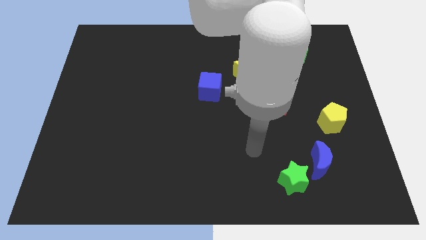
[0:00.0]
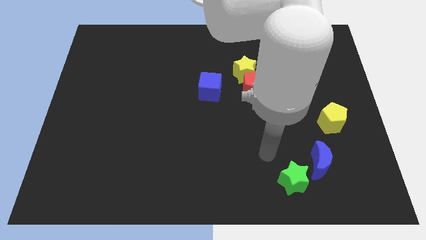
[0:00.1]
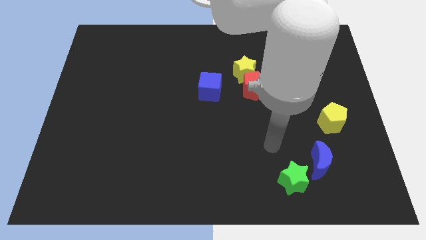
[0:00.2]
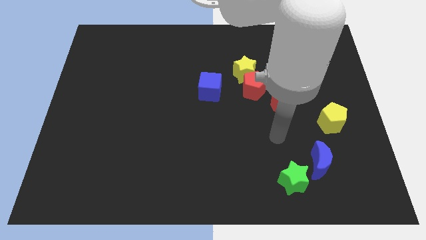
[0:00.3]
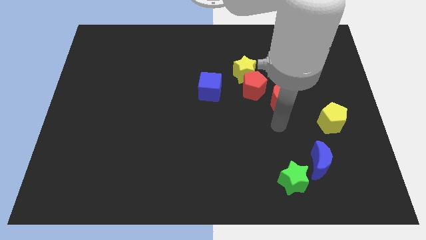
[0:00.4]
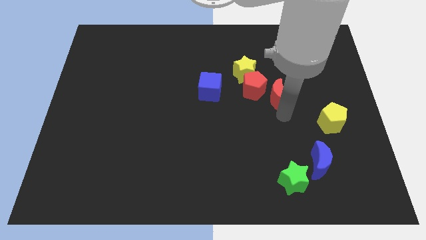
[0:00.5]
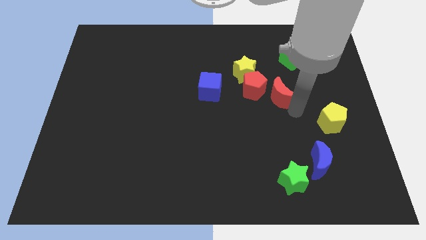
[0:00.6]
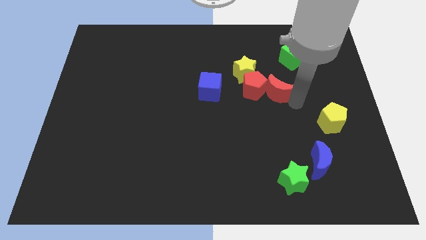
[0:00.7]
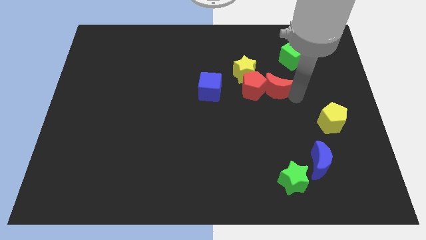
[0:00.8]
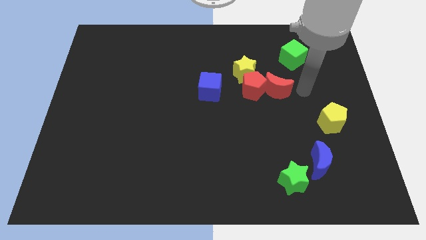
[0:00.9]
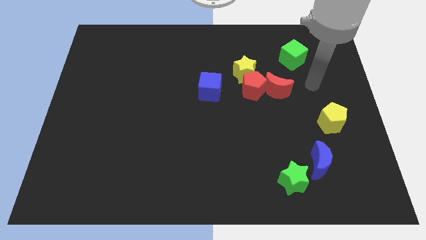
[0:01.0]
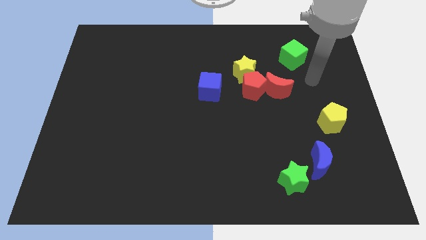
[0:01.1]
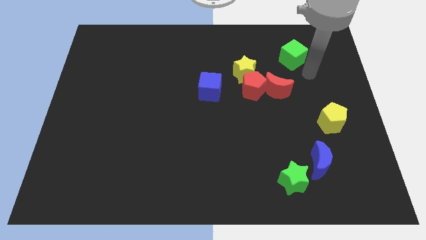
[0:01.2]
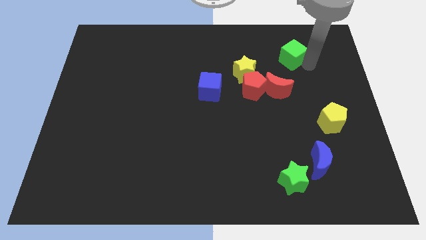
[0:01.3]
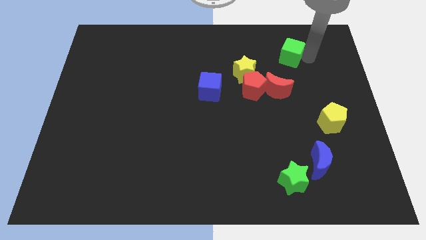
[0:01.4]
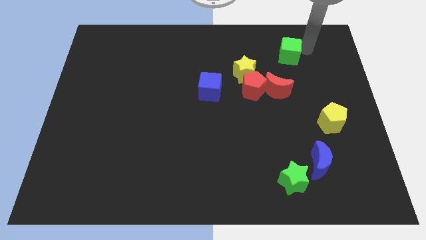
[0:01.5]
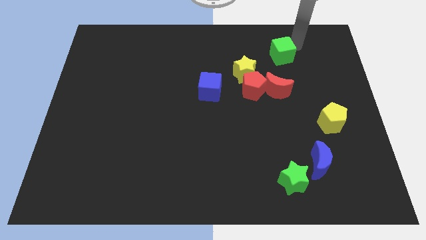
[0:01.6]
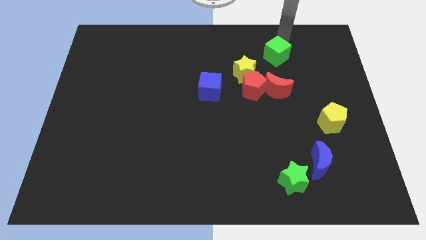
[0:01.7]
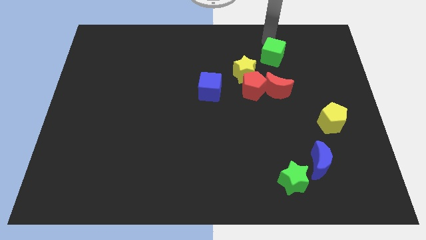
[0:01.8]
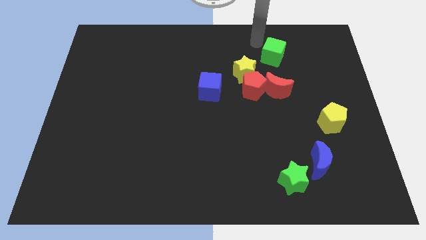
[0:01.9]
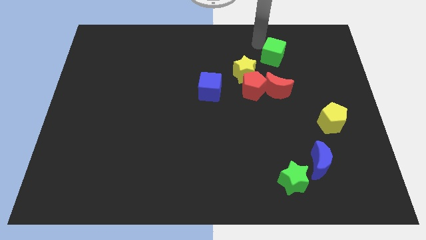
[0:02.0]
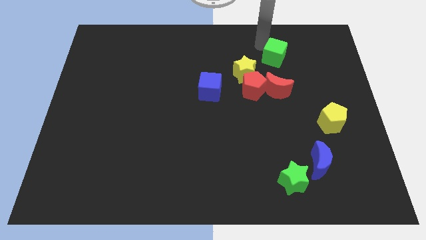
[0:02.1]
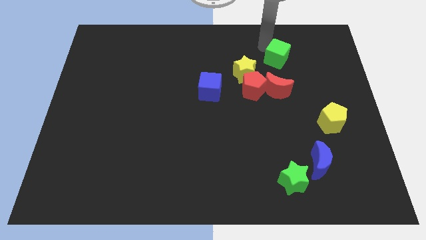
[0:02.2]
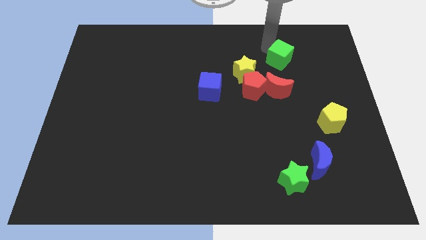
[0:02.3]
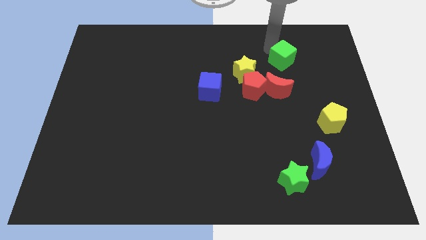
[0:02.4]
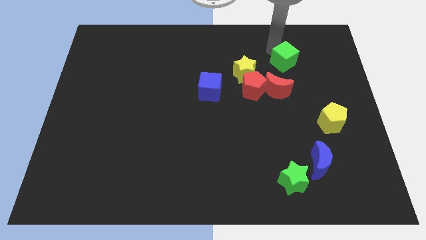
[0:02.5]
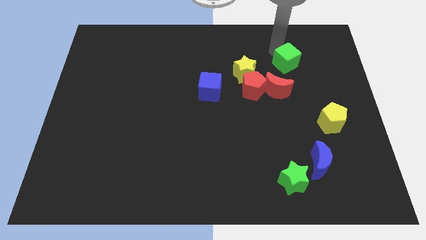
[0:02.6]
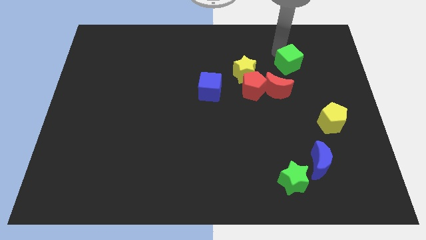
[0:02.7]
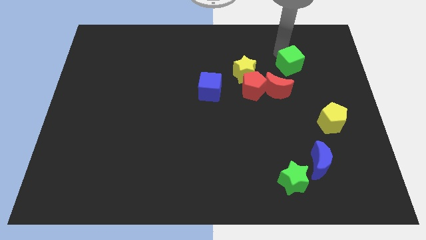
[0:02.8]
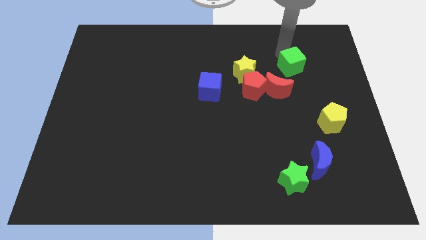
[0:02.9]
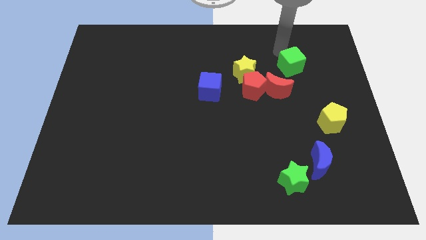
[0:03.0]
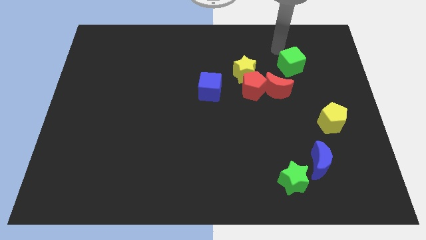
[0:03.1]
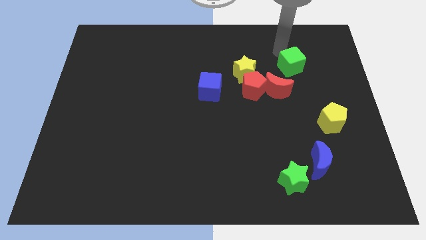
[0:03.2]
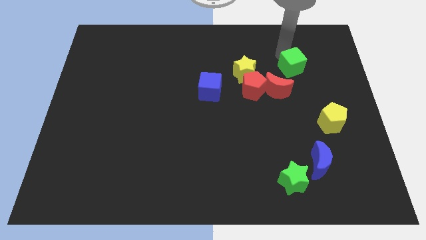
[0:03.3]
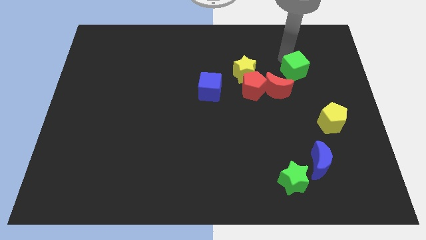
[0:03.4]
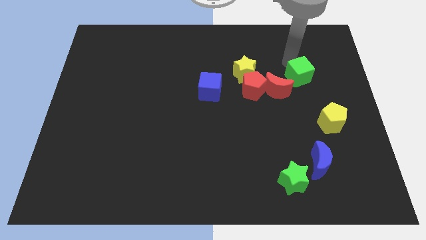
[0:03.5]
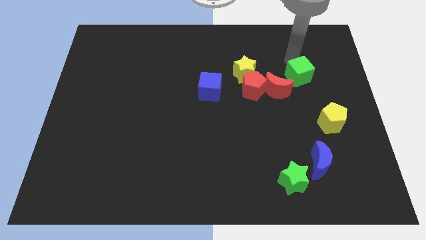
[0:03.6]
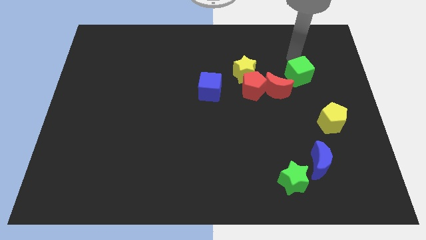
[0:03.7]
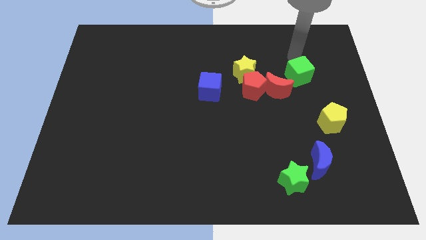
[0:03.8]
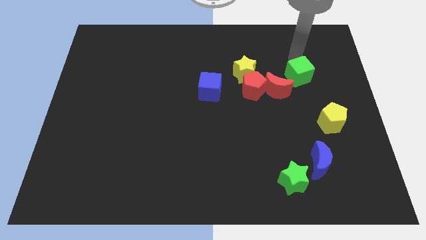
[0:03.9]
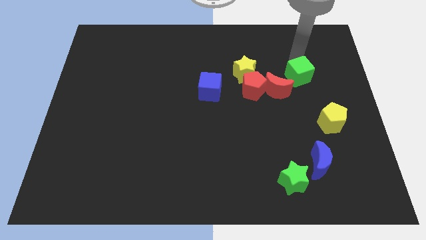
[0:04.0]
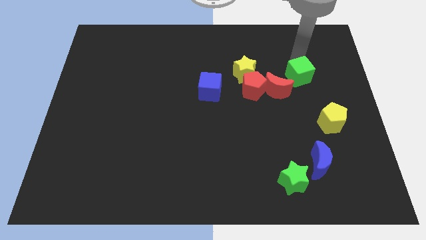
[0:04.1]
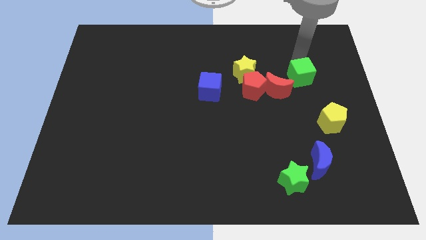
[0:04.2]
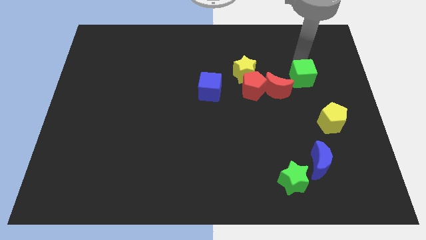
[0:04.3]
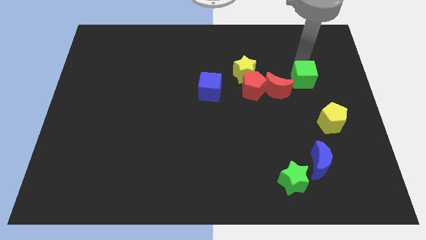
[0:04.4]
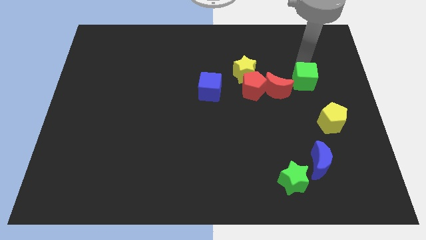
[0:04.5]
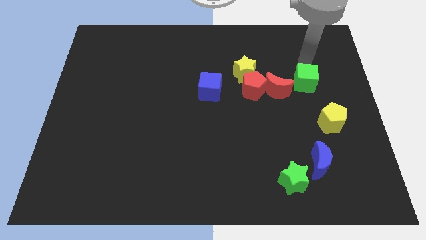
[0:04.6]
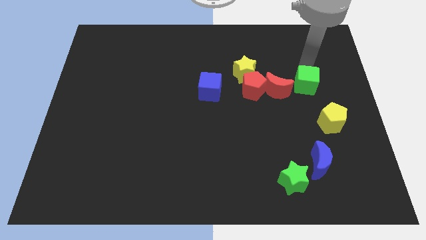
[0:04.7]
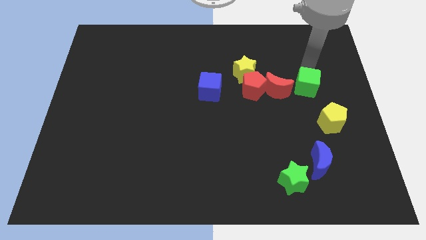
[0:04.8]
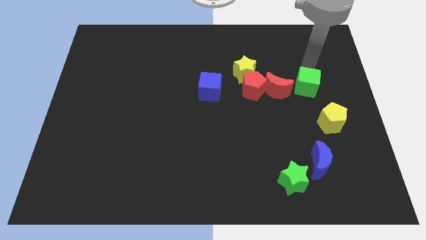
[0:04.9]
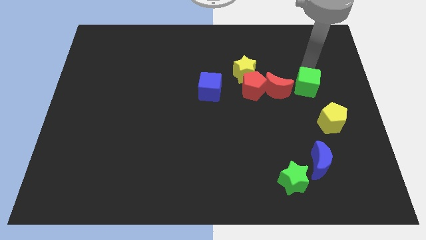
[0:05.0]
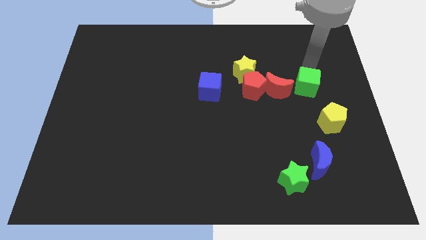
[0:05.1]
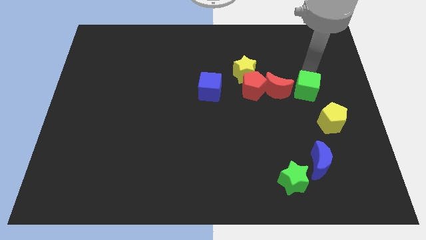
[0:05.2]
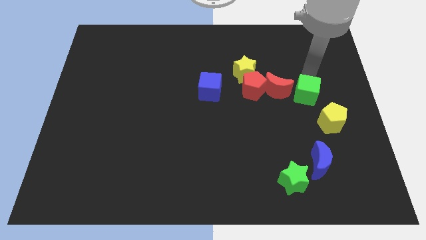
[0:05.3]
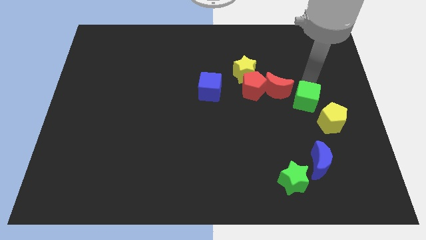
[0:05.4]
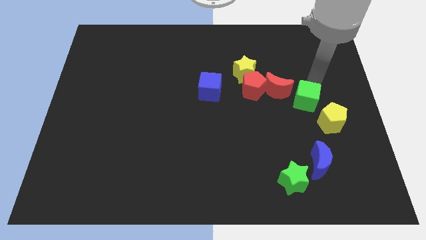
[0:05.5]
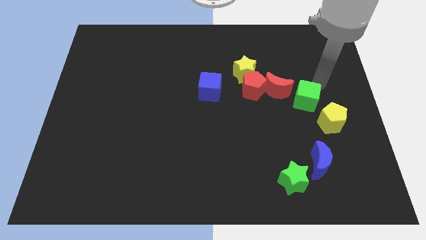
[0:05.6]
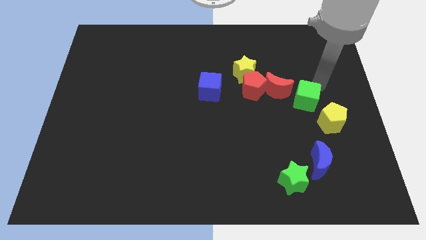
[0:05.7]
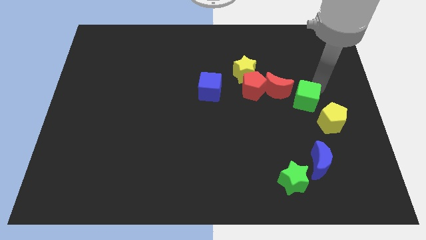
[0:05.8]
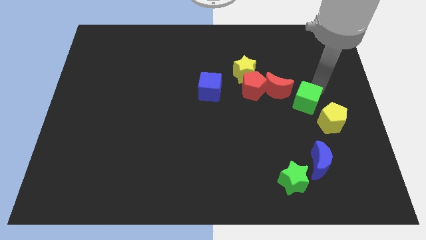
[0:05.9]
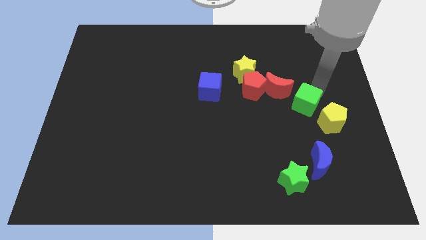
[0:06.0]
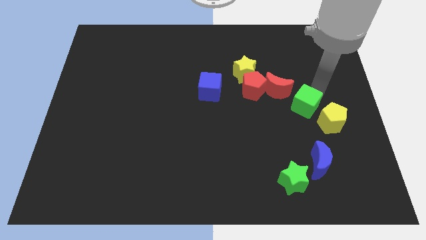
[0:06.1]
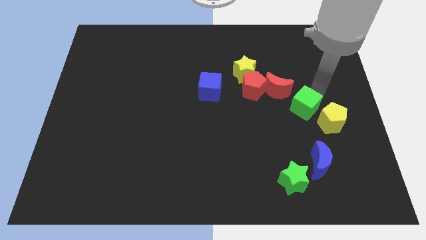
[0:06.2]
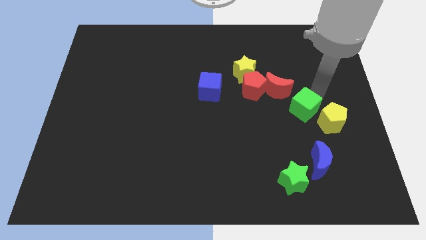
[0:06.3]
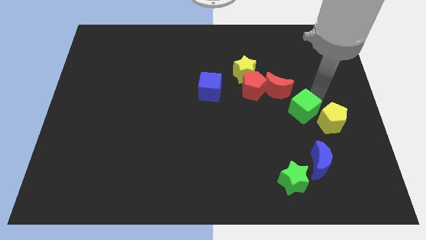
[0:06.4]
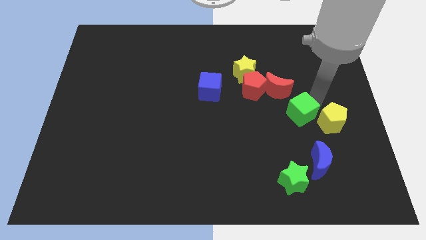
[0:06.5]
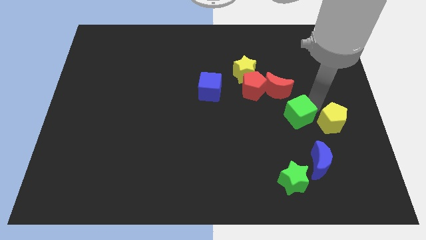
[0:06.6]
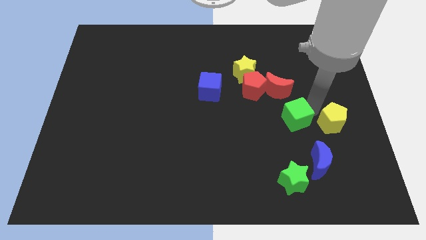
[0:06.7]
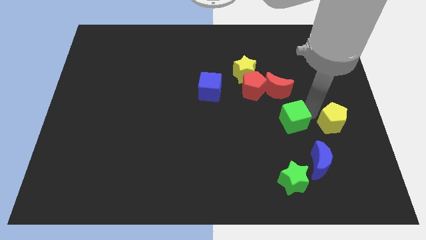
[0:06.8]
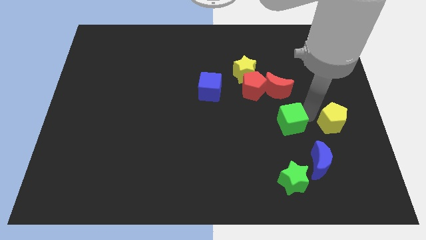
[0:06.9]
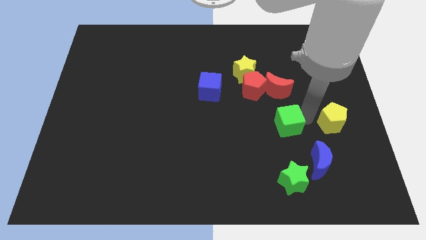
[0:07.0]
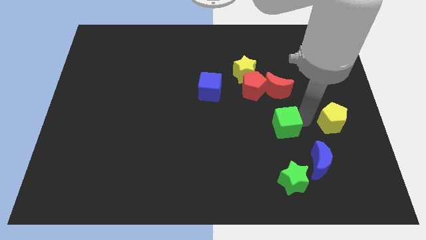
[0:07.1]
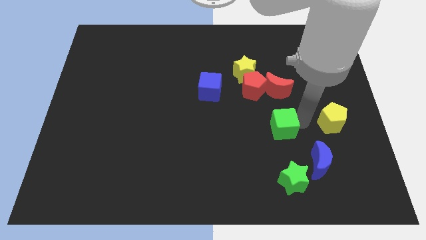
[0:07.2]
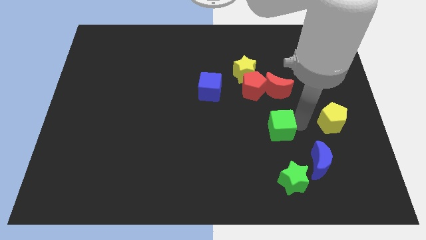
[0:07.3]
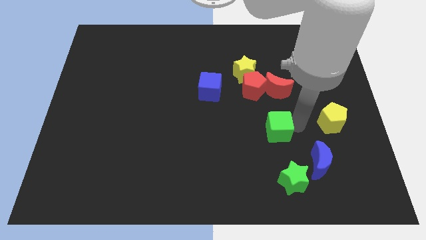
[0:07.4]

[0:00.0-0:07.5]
move the green cube to the bottom side of the red pentagon
